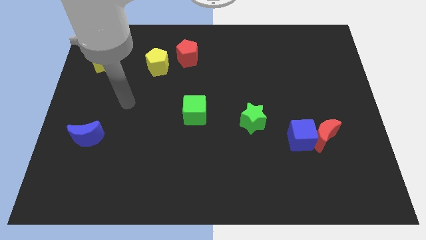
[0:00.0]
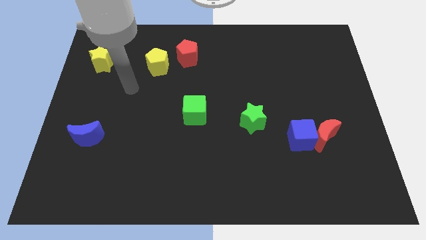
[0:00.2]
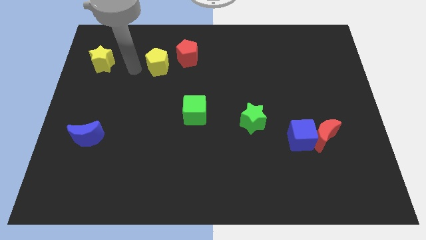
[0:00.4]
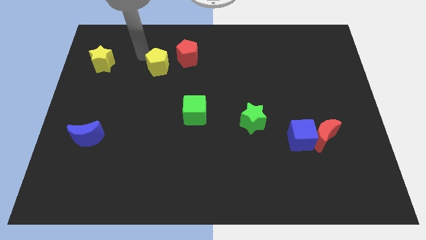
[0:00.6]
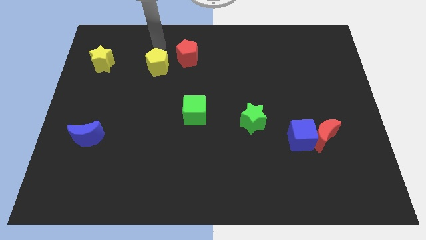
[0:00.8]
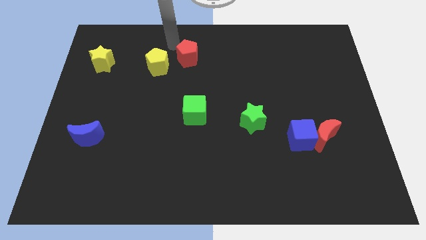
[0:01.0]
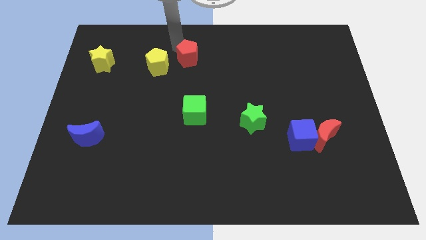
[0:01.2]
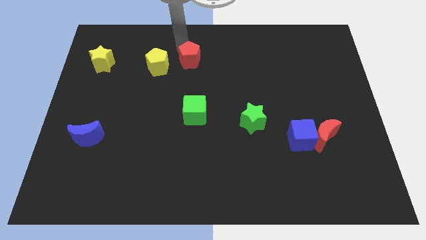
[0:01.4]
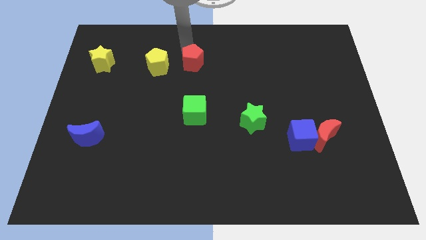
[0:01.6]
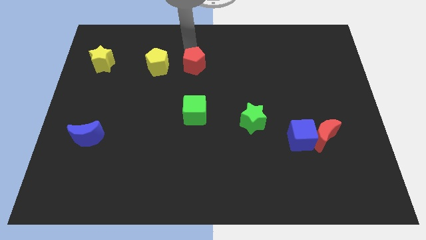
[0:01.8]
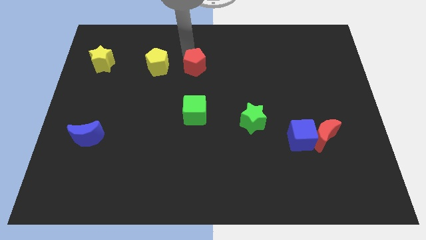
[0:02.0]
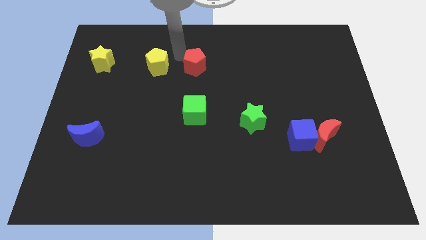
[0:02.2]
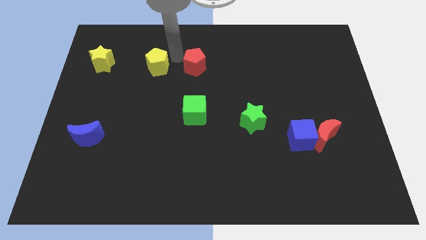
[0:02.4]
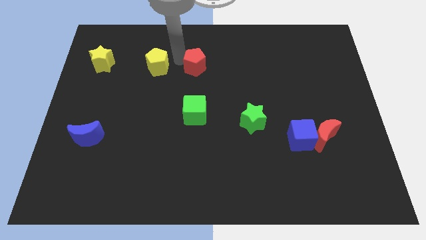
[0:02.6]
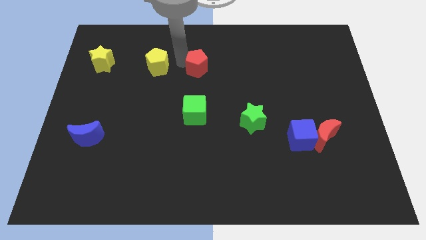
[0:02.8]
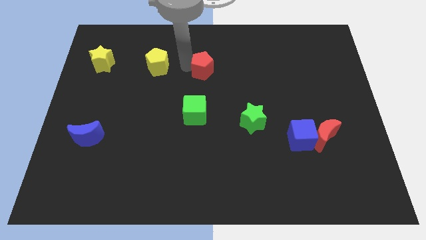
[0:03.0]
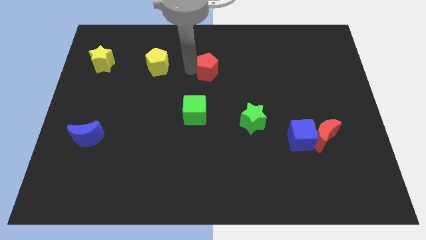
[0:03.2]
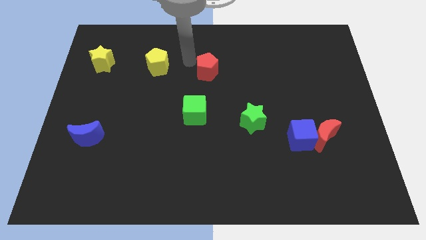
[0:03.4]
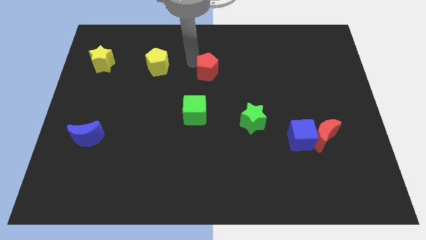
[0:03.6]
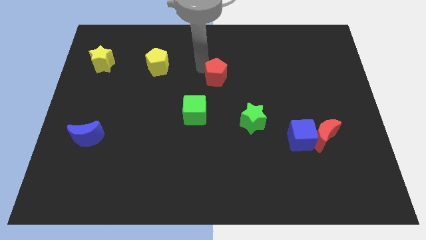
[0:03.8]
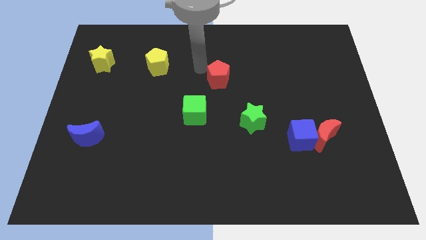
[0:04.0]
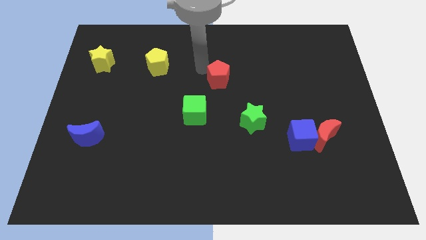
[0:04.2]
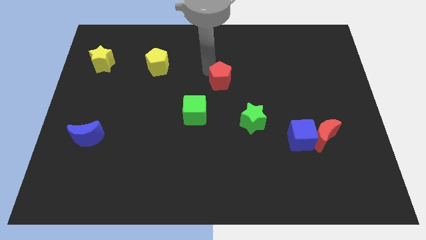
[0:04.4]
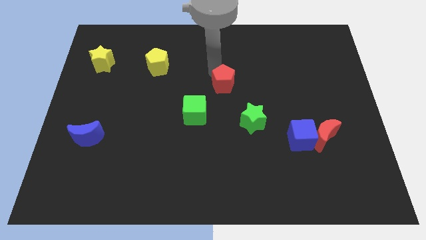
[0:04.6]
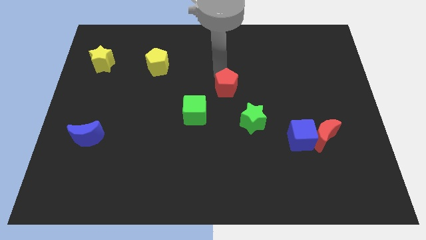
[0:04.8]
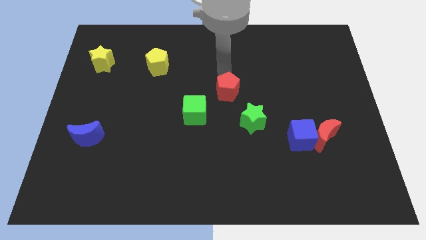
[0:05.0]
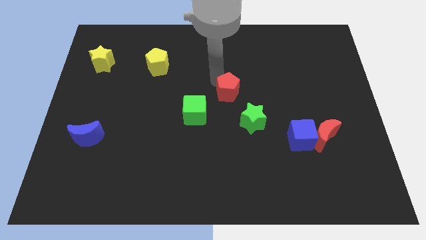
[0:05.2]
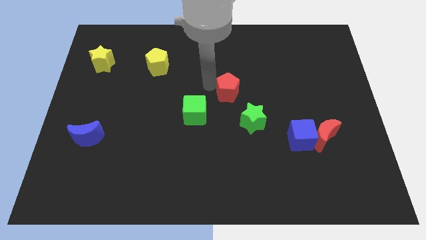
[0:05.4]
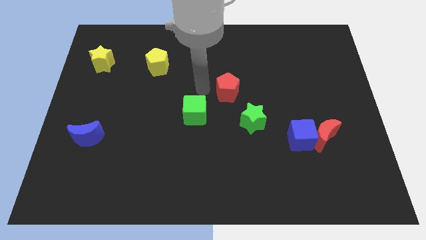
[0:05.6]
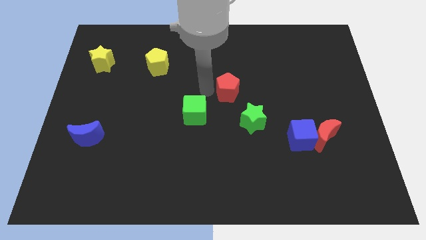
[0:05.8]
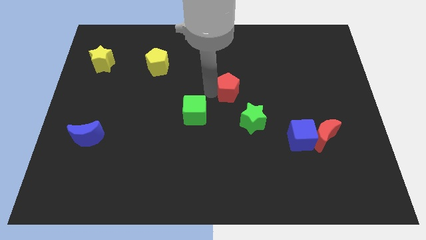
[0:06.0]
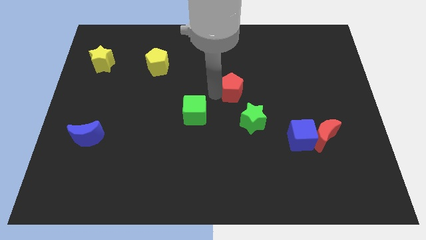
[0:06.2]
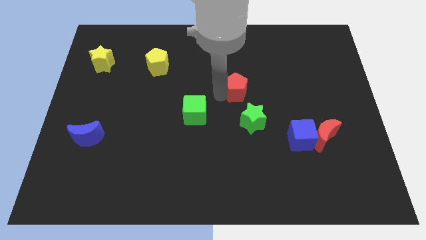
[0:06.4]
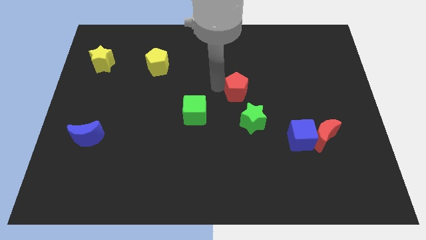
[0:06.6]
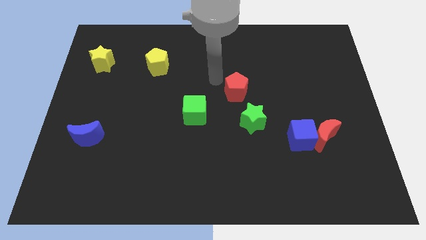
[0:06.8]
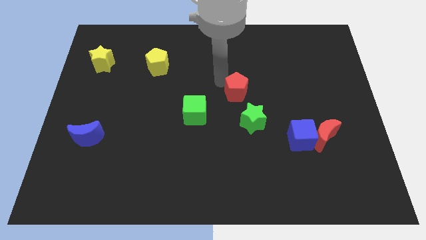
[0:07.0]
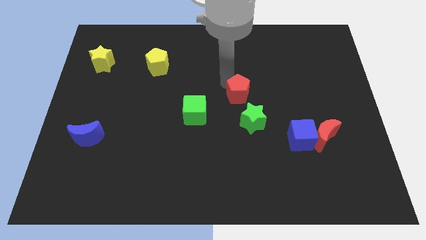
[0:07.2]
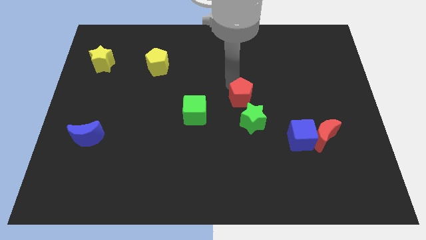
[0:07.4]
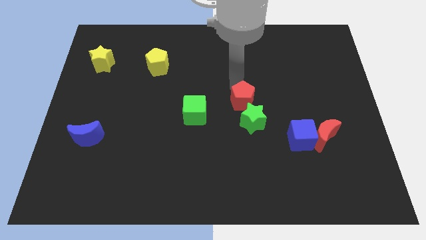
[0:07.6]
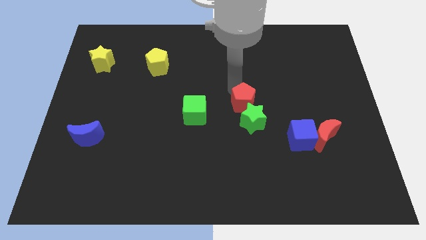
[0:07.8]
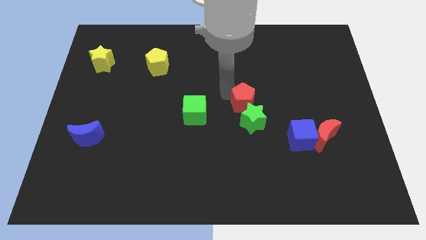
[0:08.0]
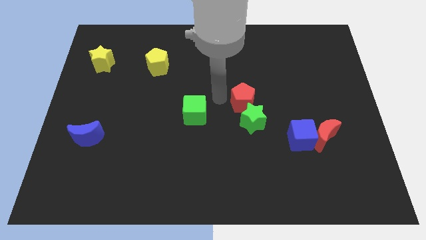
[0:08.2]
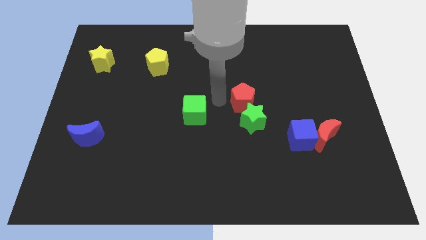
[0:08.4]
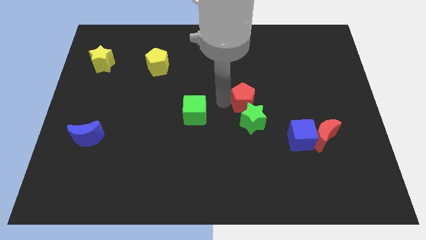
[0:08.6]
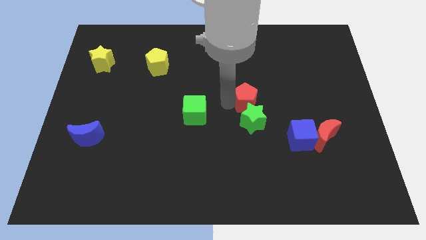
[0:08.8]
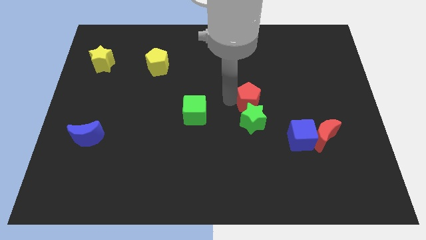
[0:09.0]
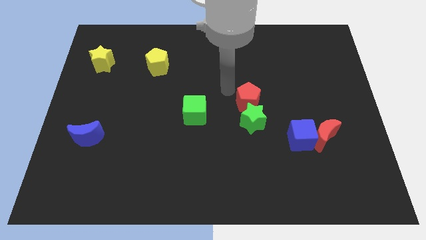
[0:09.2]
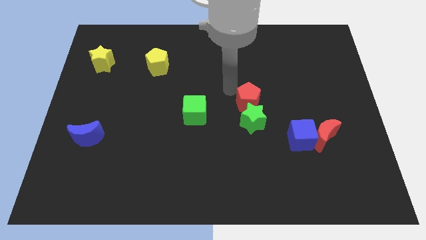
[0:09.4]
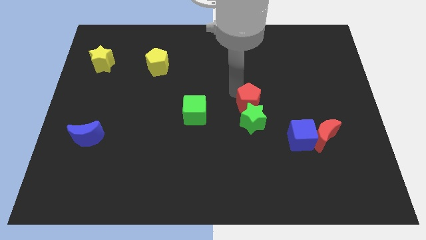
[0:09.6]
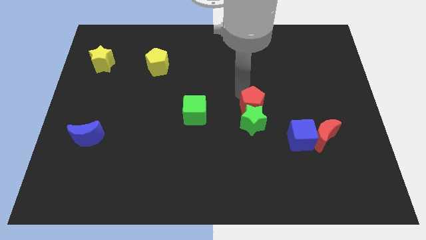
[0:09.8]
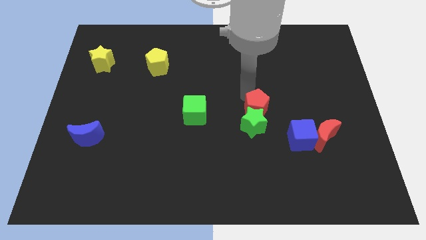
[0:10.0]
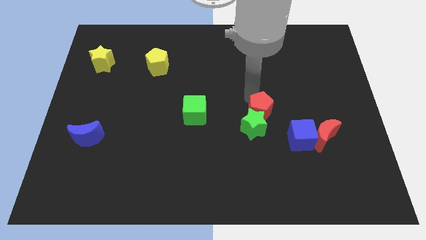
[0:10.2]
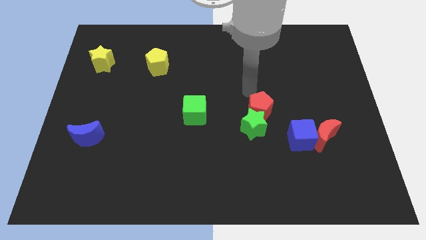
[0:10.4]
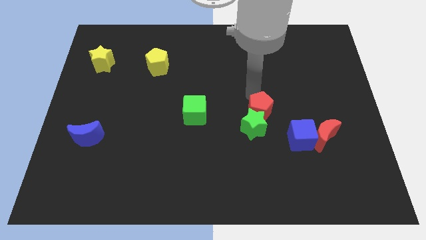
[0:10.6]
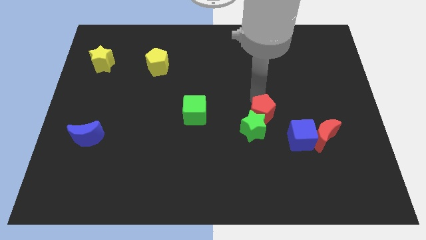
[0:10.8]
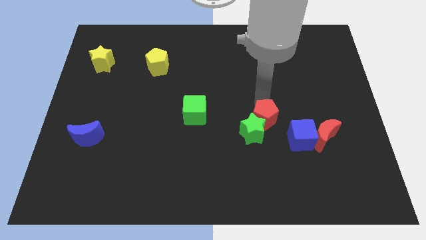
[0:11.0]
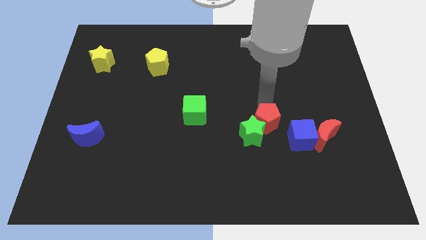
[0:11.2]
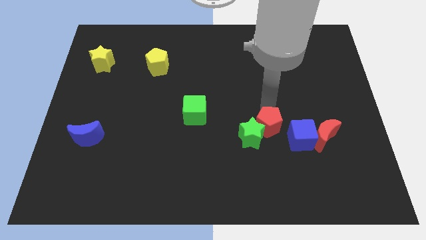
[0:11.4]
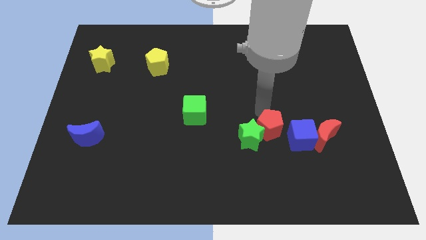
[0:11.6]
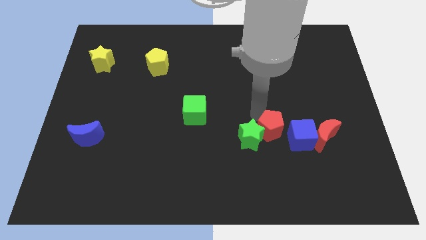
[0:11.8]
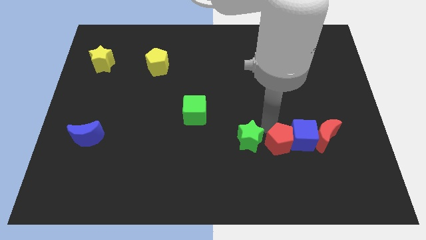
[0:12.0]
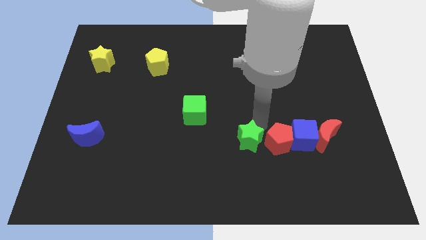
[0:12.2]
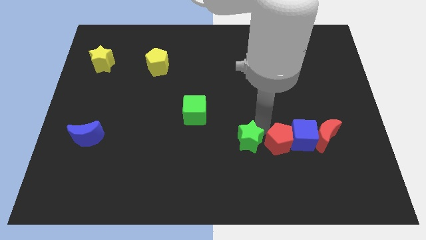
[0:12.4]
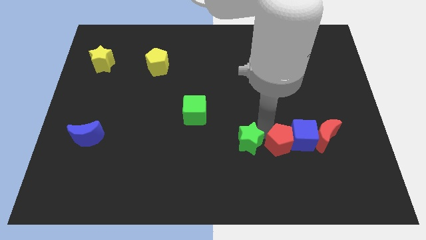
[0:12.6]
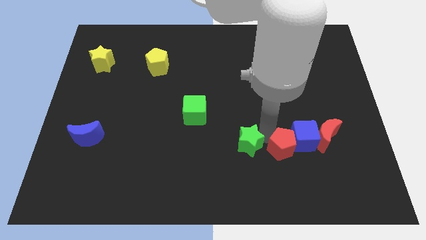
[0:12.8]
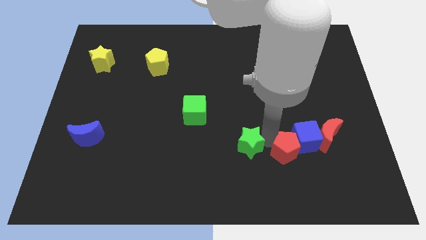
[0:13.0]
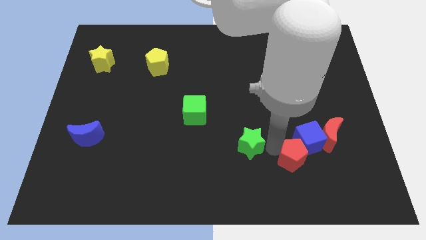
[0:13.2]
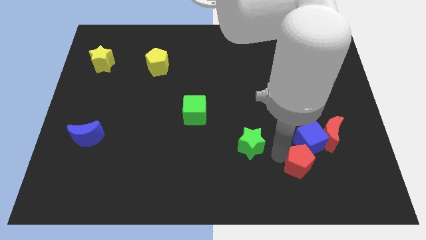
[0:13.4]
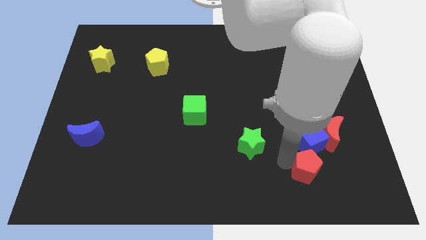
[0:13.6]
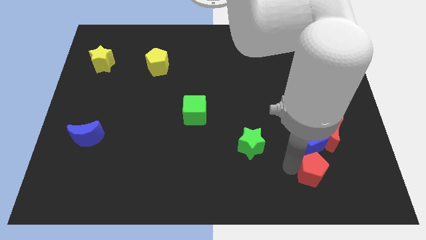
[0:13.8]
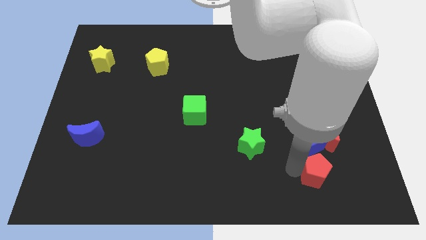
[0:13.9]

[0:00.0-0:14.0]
slide the red pentagon below the red moon
